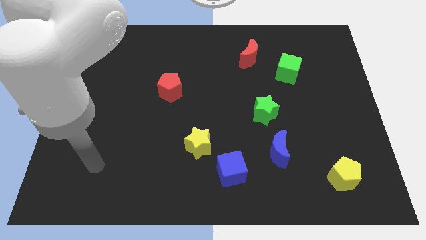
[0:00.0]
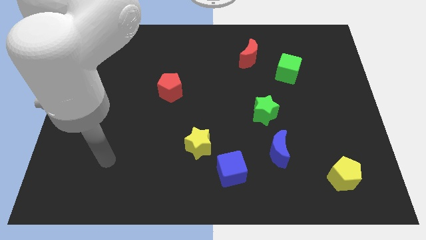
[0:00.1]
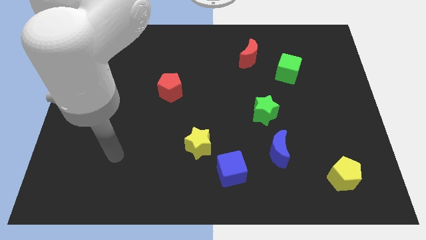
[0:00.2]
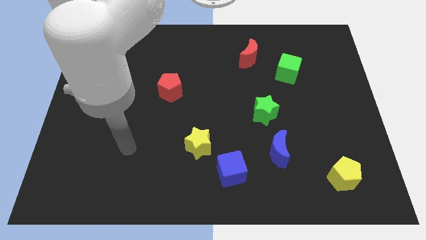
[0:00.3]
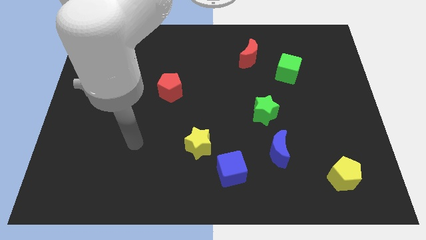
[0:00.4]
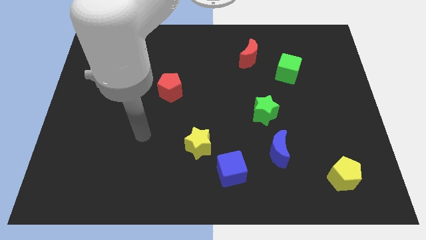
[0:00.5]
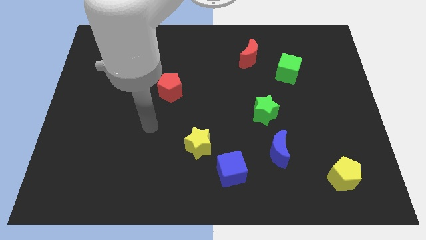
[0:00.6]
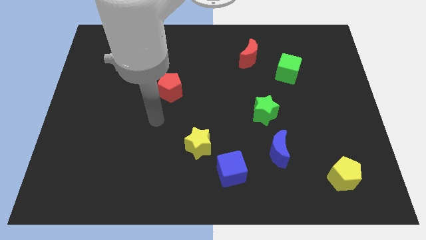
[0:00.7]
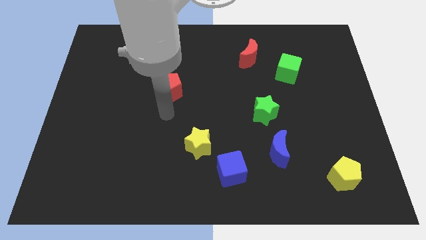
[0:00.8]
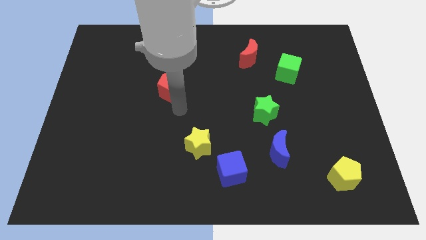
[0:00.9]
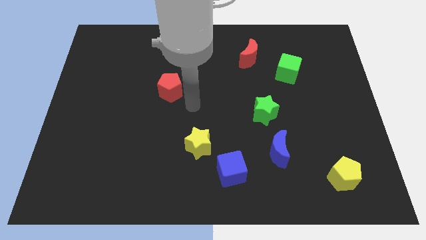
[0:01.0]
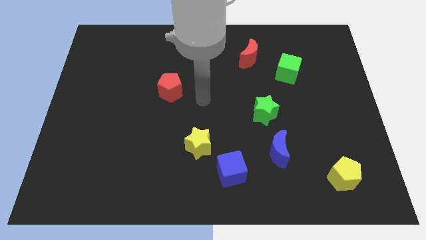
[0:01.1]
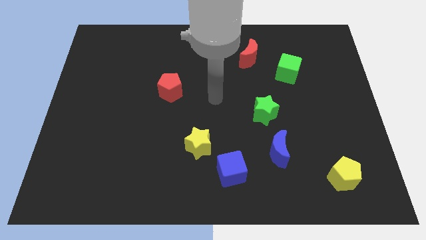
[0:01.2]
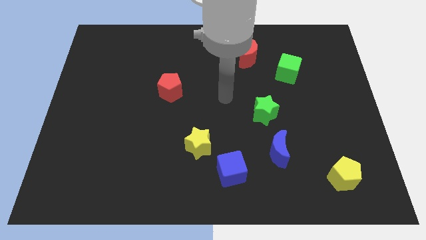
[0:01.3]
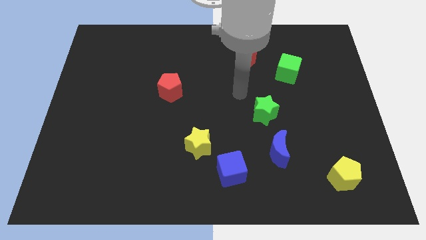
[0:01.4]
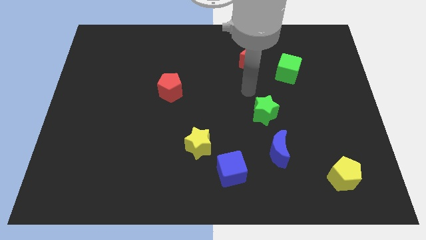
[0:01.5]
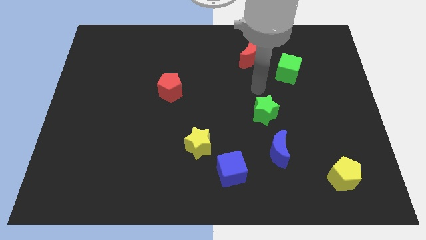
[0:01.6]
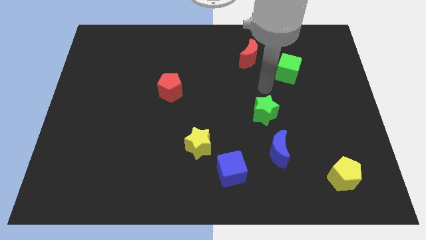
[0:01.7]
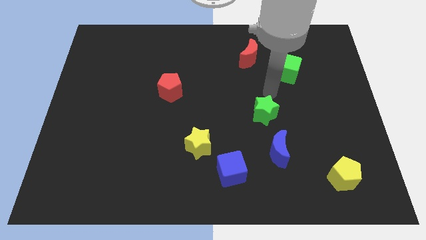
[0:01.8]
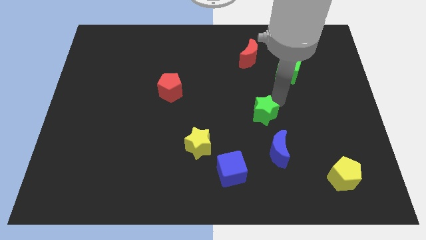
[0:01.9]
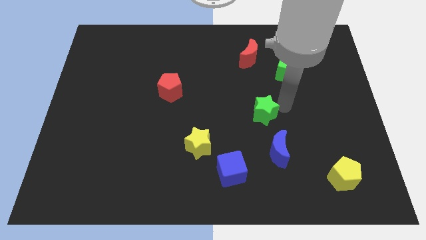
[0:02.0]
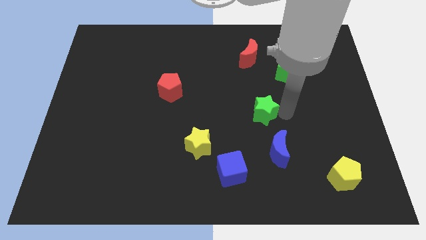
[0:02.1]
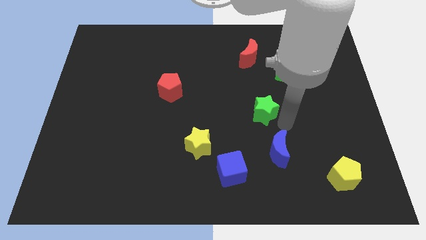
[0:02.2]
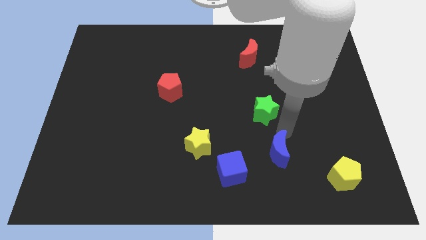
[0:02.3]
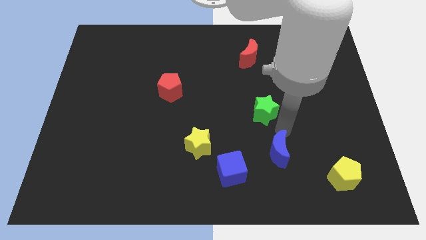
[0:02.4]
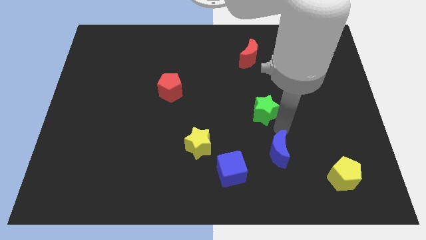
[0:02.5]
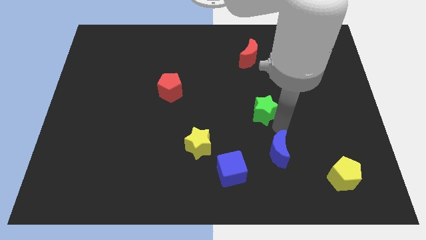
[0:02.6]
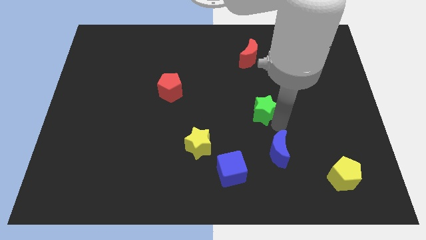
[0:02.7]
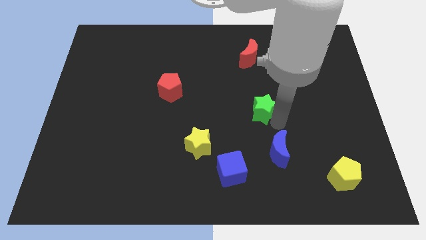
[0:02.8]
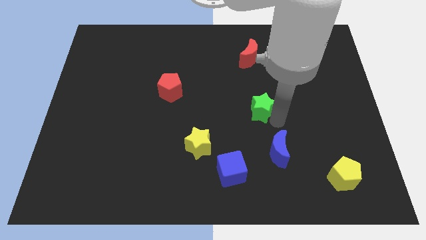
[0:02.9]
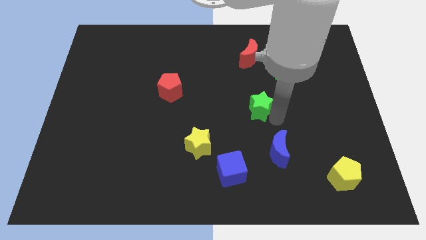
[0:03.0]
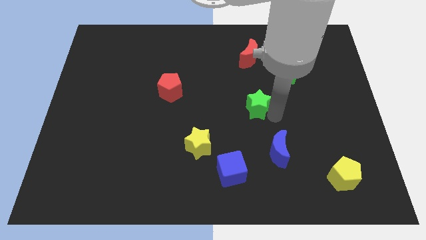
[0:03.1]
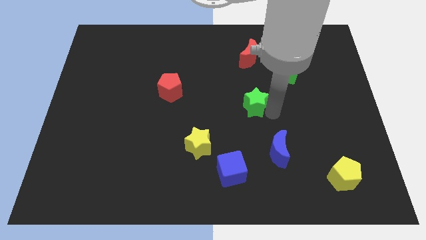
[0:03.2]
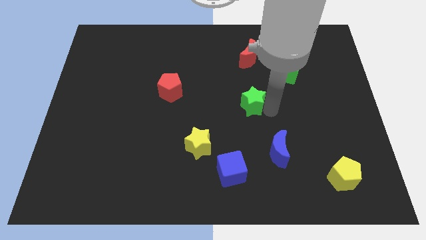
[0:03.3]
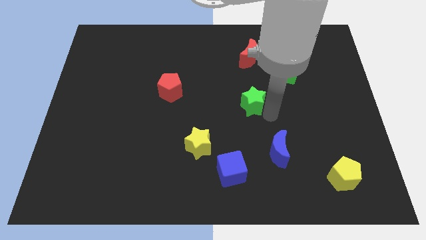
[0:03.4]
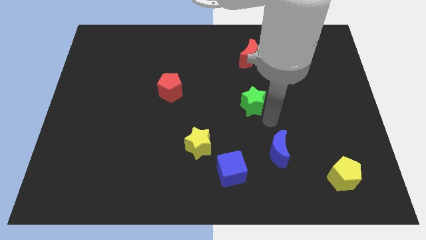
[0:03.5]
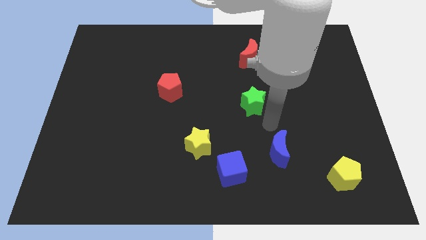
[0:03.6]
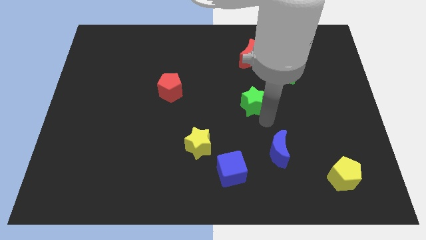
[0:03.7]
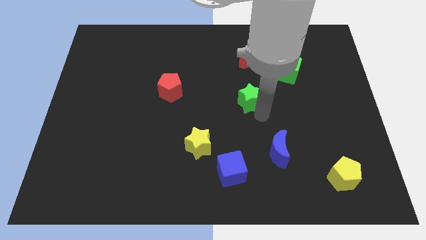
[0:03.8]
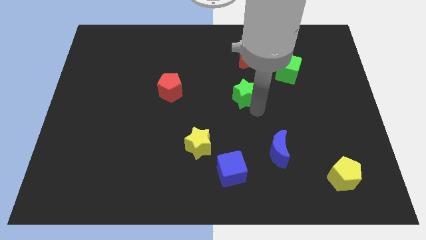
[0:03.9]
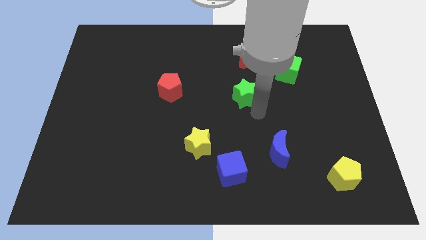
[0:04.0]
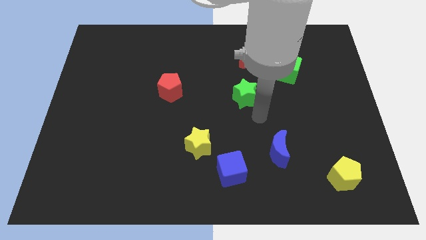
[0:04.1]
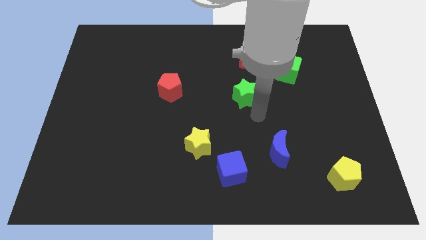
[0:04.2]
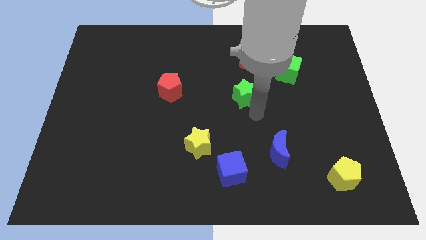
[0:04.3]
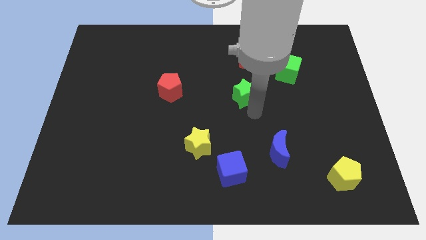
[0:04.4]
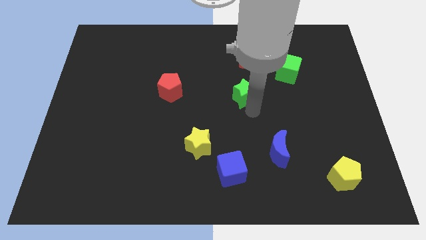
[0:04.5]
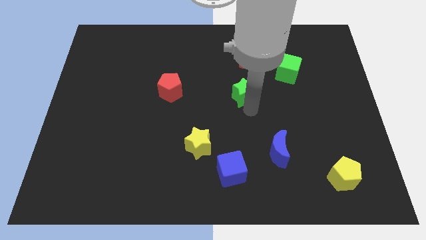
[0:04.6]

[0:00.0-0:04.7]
move the green star upwards and to the left diagonally somewhat

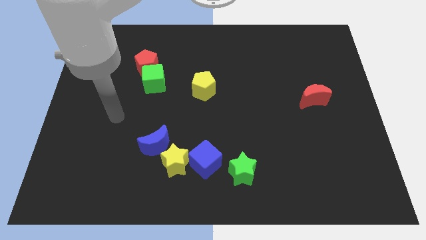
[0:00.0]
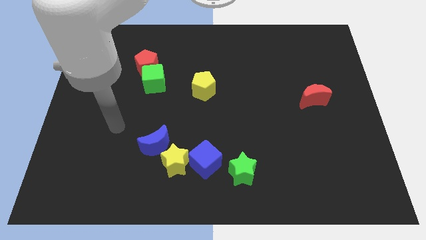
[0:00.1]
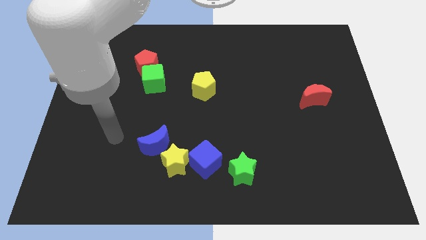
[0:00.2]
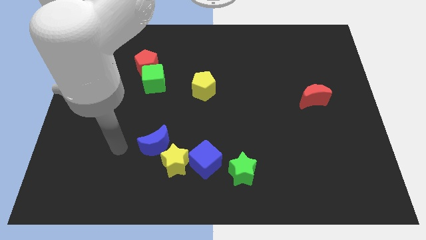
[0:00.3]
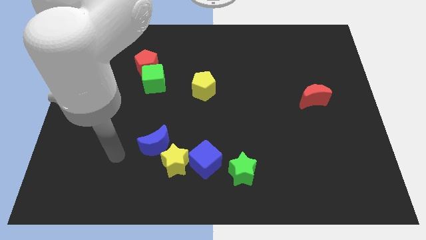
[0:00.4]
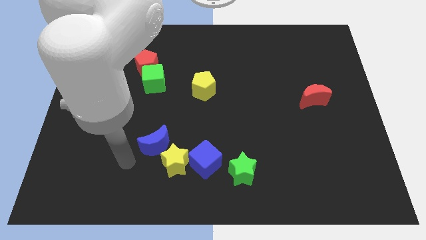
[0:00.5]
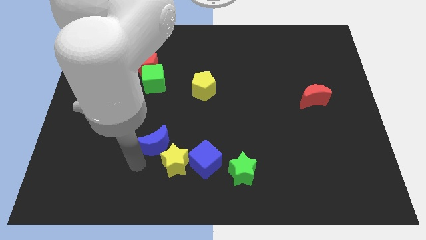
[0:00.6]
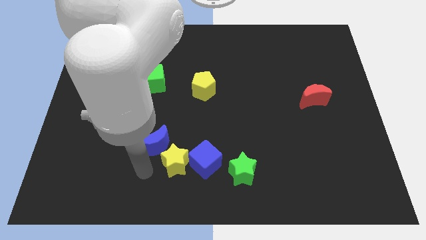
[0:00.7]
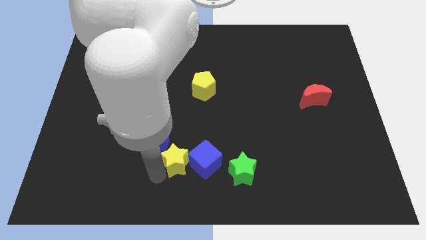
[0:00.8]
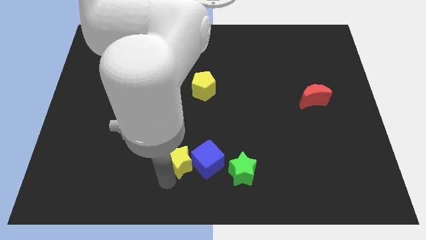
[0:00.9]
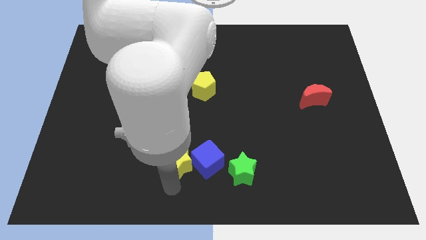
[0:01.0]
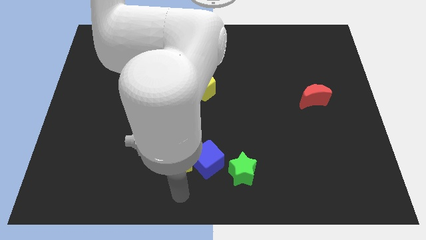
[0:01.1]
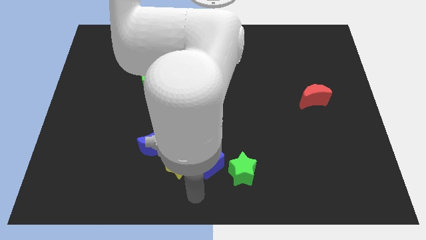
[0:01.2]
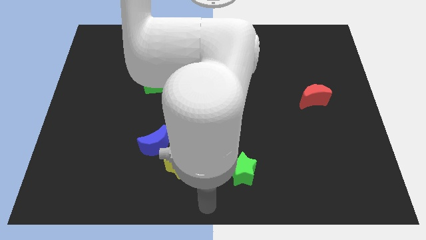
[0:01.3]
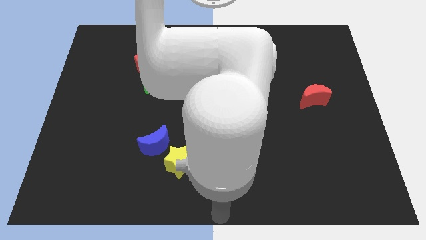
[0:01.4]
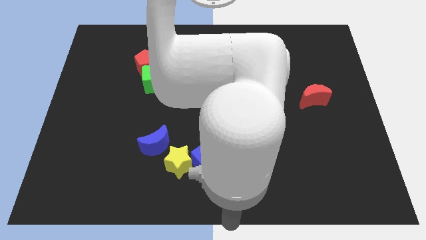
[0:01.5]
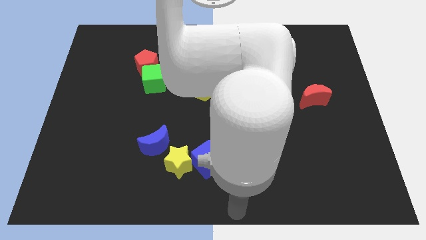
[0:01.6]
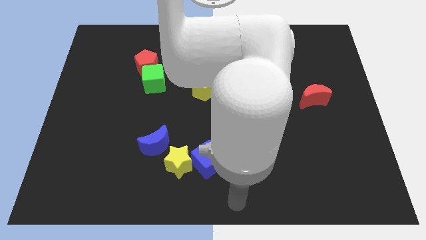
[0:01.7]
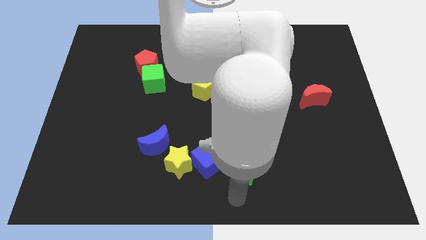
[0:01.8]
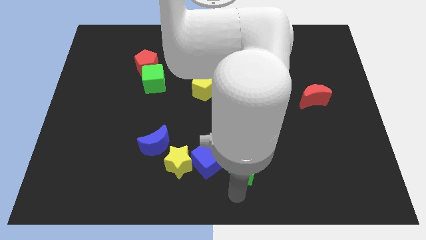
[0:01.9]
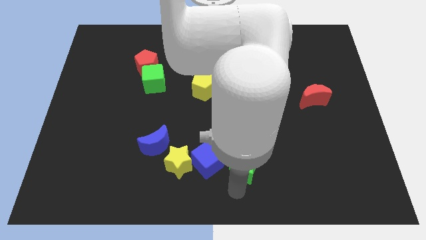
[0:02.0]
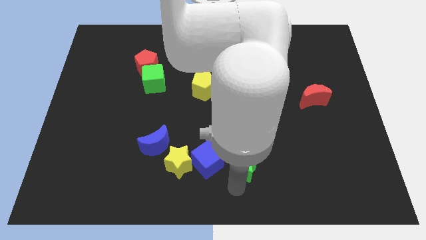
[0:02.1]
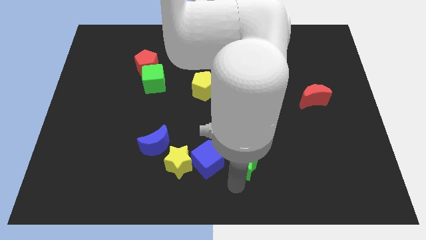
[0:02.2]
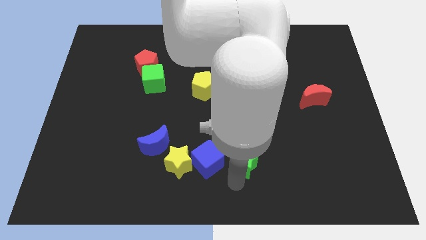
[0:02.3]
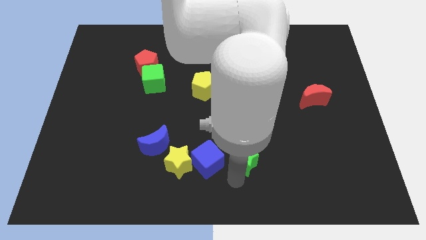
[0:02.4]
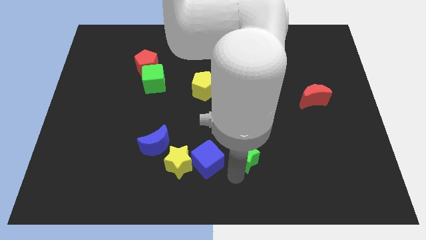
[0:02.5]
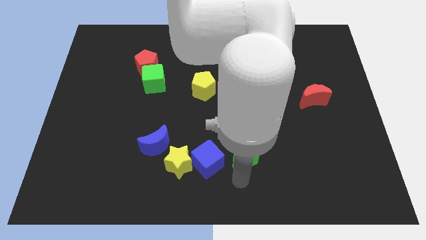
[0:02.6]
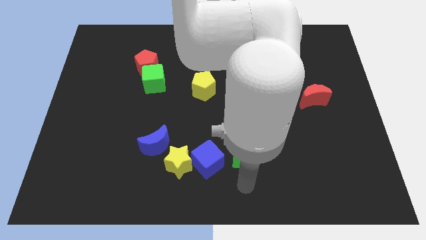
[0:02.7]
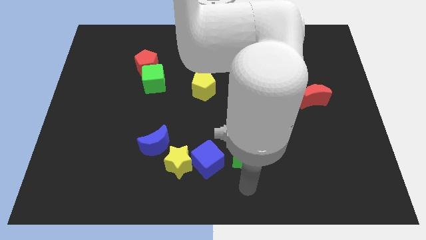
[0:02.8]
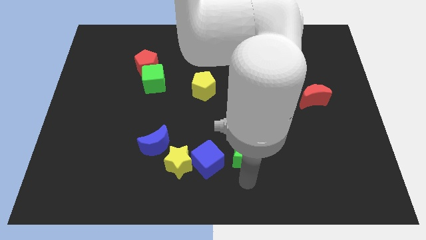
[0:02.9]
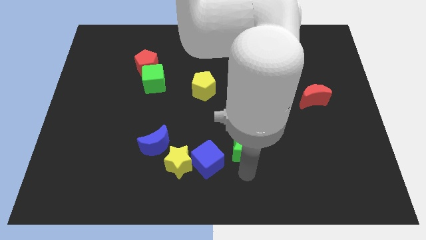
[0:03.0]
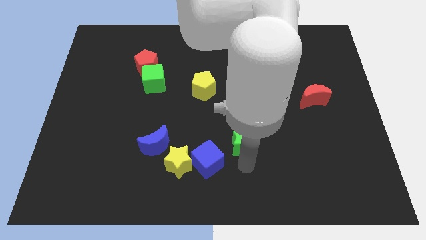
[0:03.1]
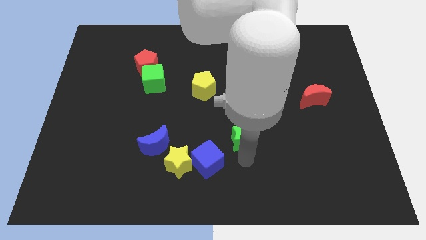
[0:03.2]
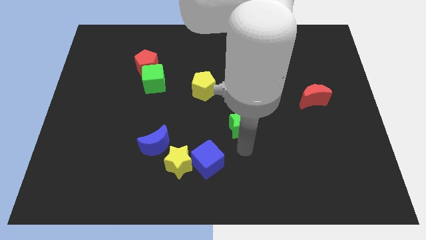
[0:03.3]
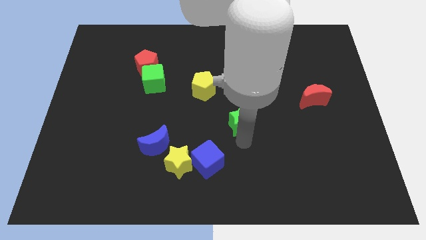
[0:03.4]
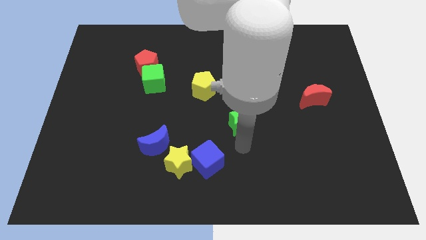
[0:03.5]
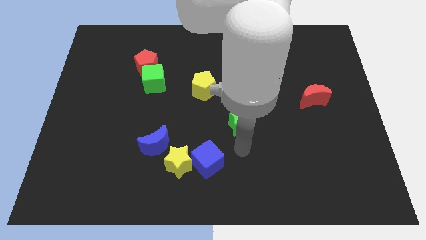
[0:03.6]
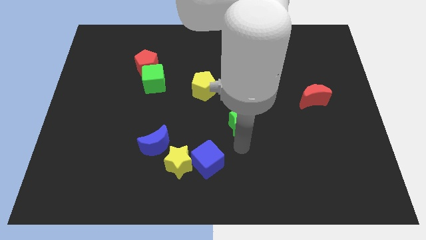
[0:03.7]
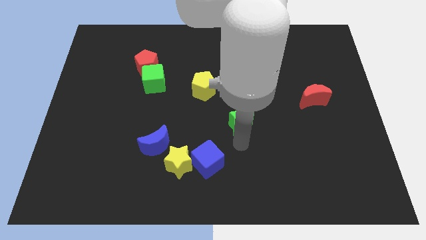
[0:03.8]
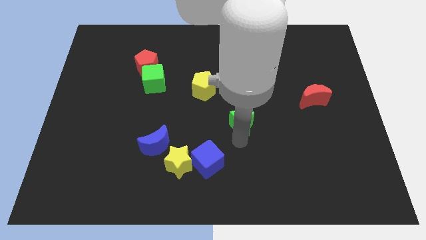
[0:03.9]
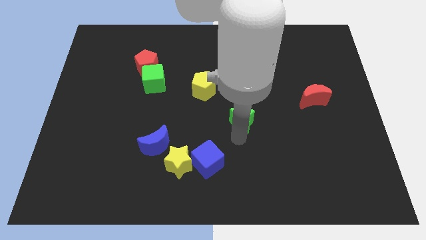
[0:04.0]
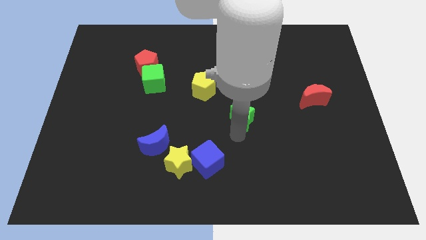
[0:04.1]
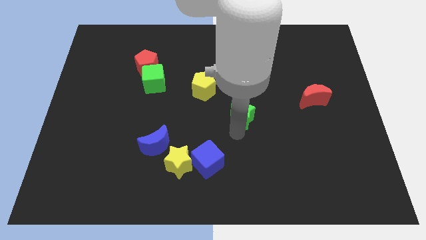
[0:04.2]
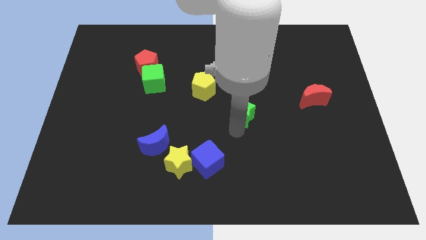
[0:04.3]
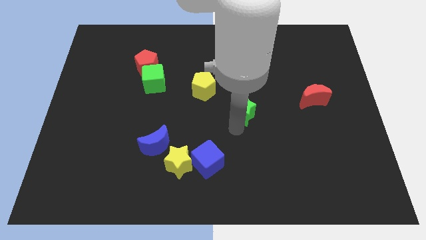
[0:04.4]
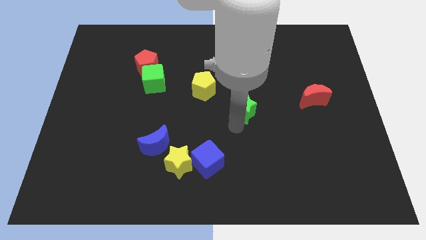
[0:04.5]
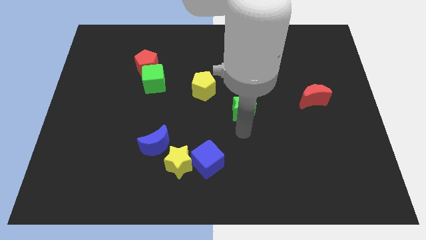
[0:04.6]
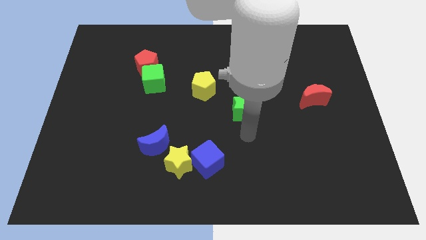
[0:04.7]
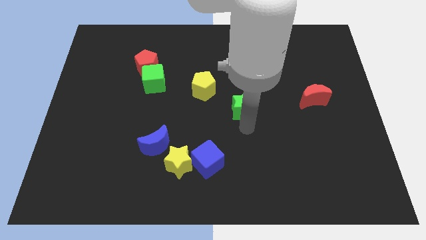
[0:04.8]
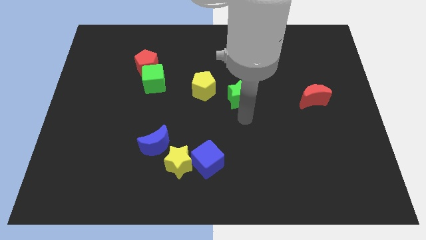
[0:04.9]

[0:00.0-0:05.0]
move the green star upwards
